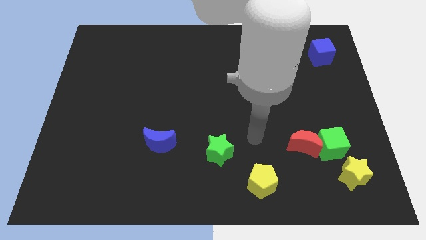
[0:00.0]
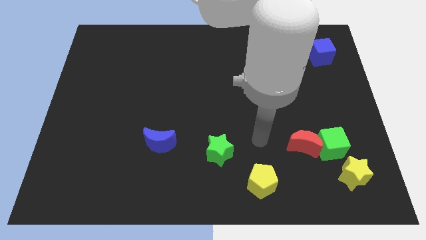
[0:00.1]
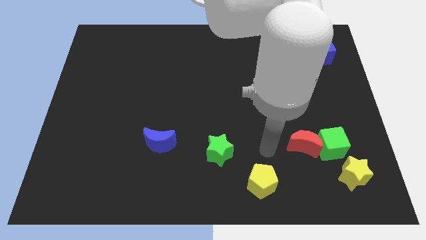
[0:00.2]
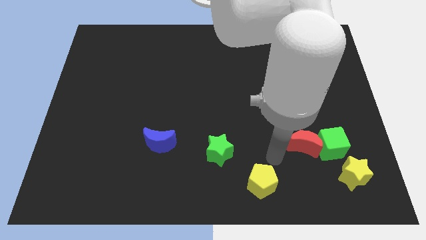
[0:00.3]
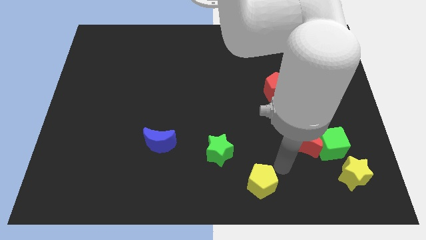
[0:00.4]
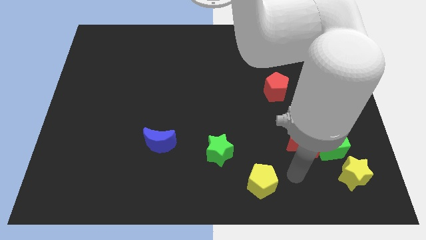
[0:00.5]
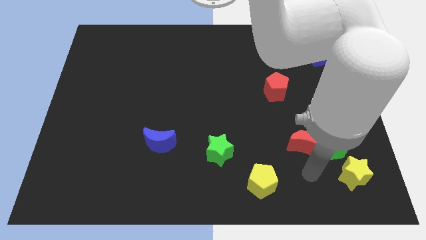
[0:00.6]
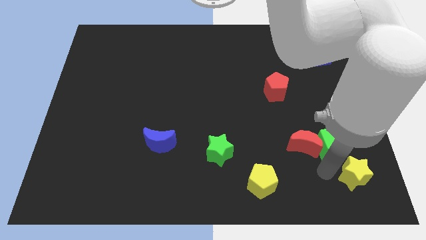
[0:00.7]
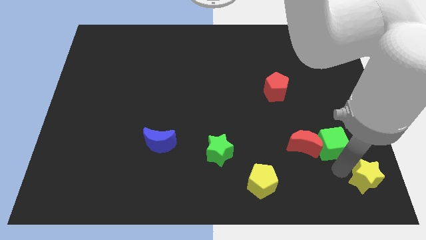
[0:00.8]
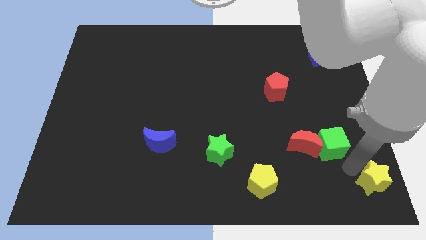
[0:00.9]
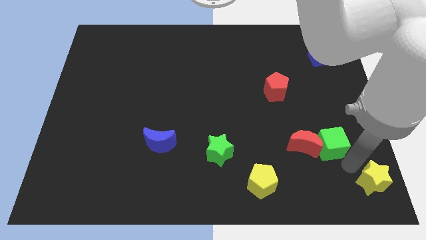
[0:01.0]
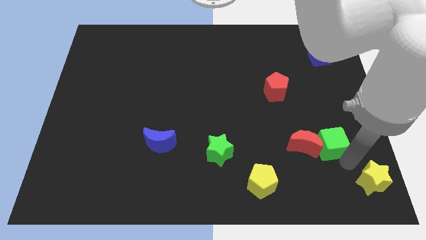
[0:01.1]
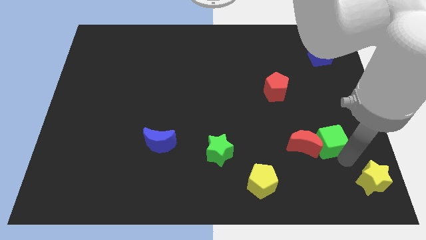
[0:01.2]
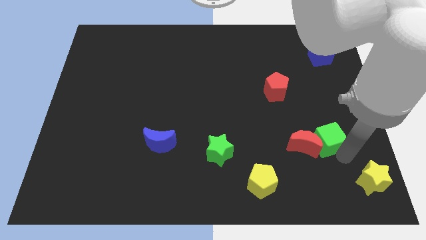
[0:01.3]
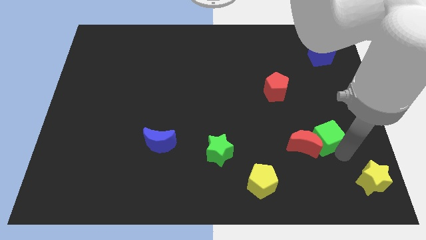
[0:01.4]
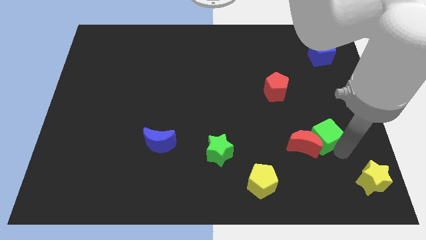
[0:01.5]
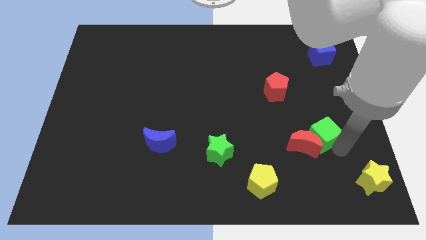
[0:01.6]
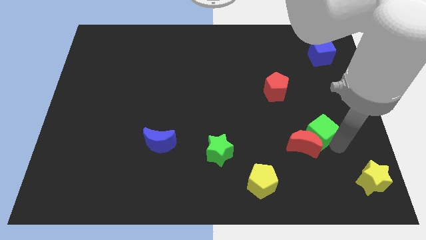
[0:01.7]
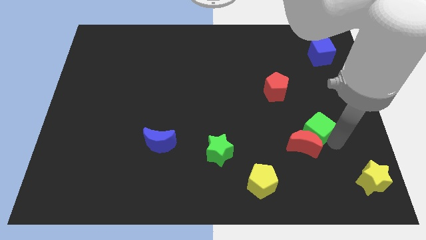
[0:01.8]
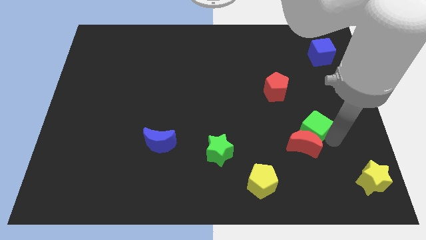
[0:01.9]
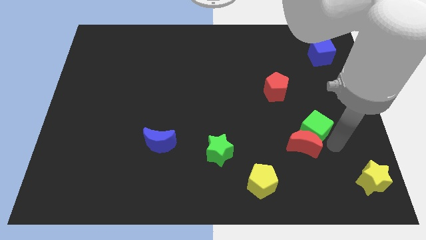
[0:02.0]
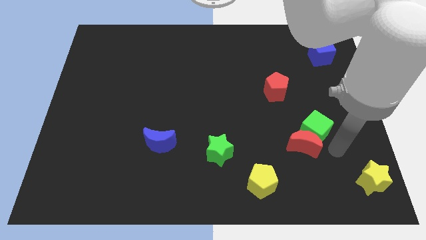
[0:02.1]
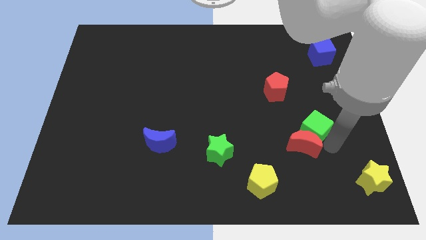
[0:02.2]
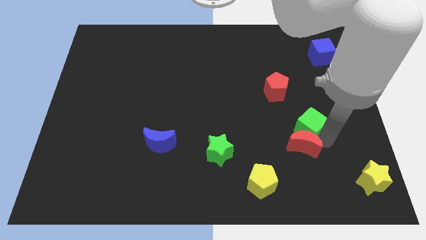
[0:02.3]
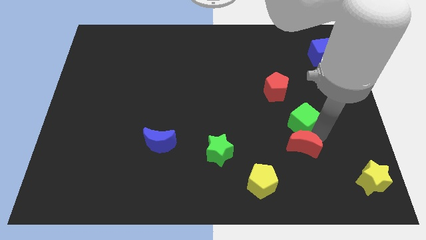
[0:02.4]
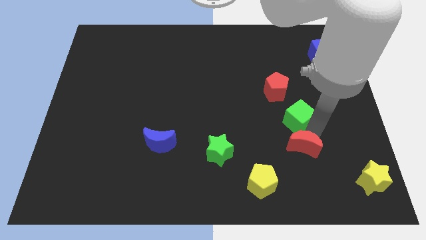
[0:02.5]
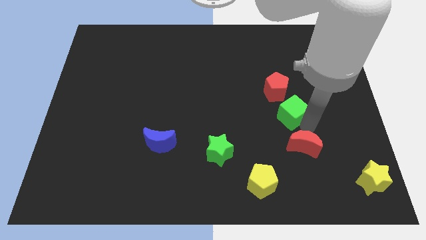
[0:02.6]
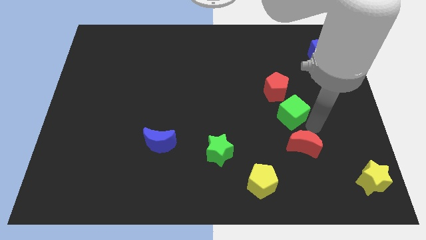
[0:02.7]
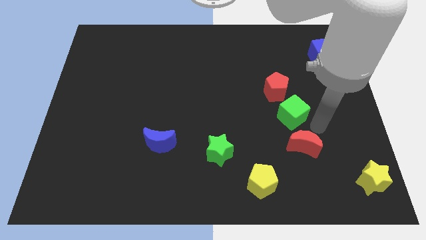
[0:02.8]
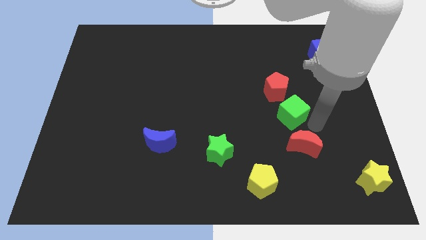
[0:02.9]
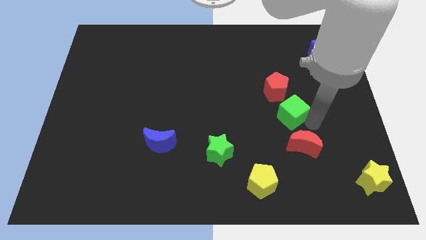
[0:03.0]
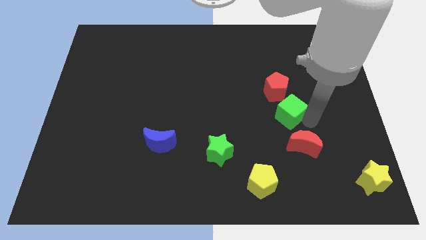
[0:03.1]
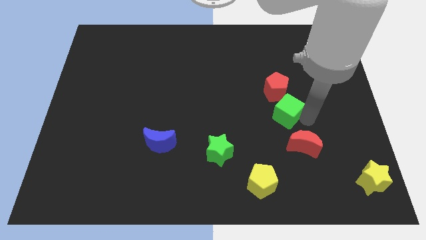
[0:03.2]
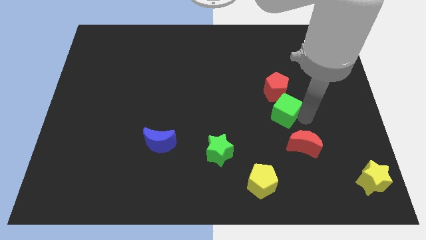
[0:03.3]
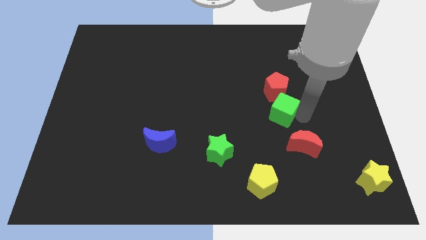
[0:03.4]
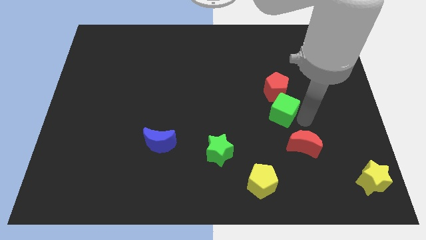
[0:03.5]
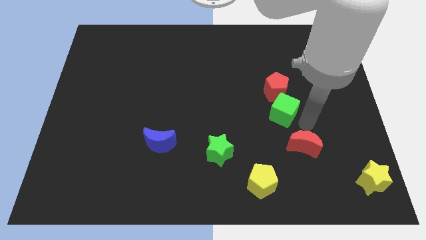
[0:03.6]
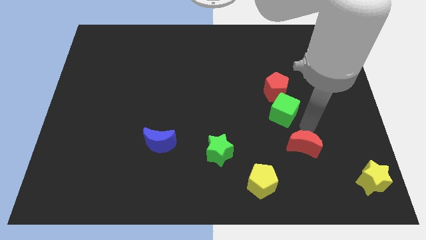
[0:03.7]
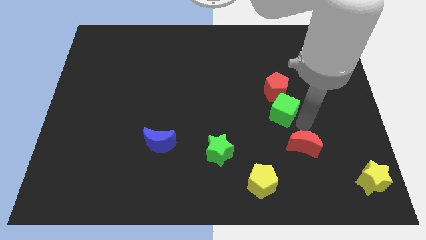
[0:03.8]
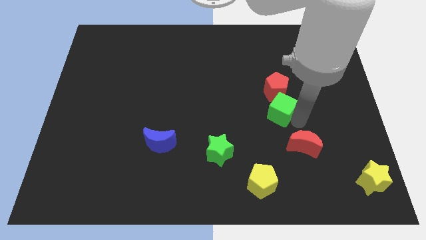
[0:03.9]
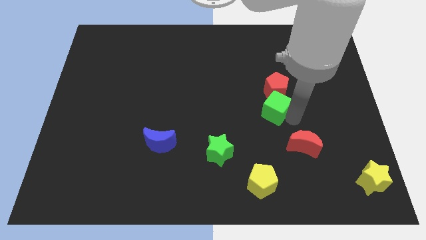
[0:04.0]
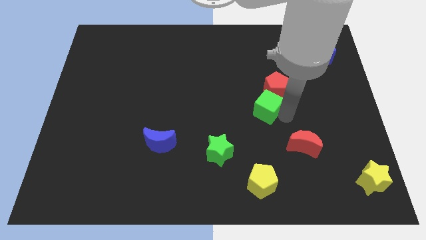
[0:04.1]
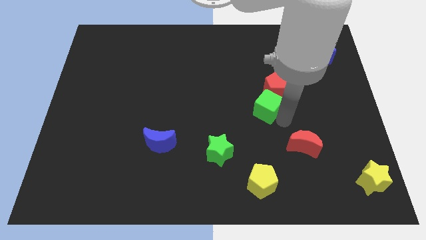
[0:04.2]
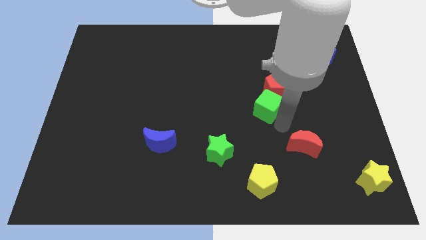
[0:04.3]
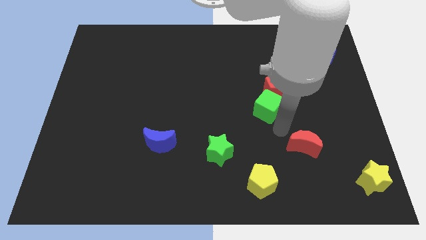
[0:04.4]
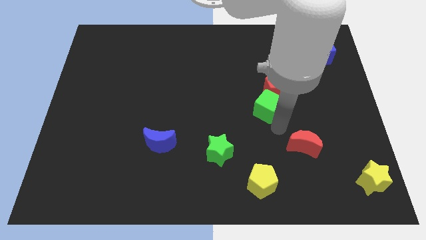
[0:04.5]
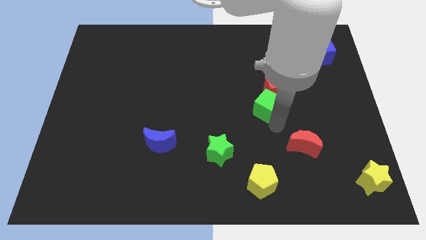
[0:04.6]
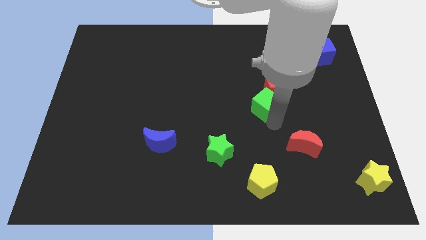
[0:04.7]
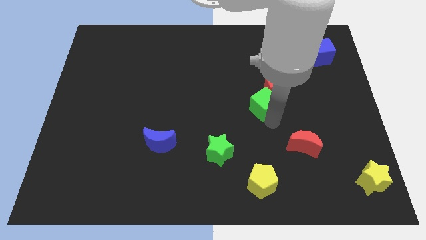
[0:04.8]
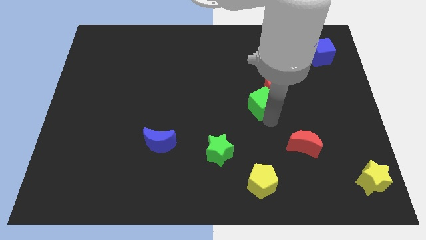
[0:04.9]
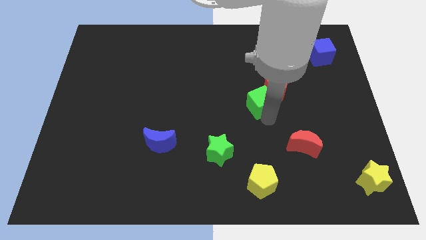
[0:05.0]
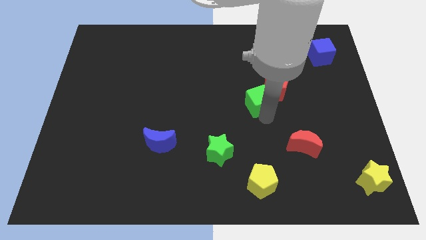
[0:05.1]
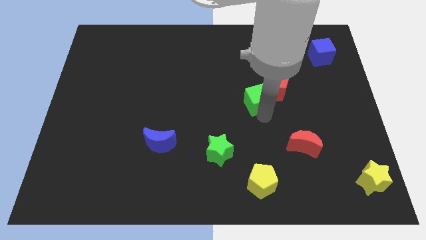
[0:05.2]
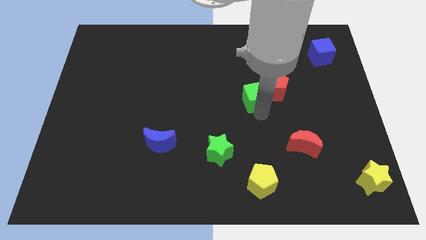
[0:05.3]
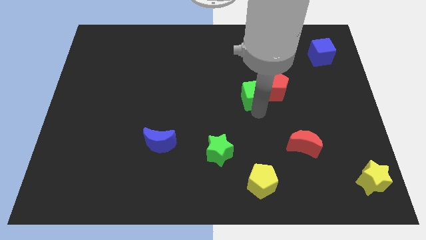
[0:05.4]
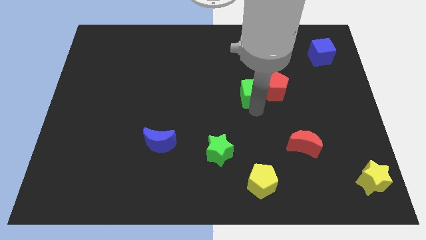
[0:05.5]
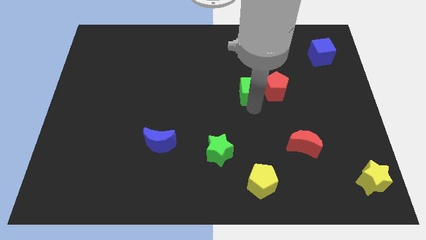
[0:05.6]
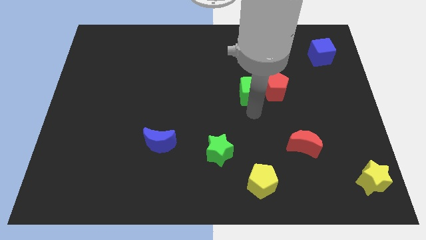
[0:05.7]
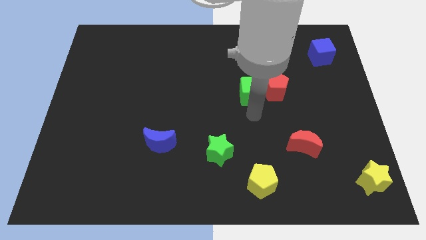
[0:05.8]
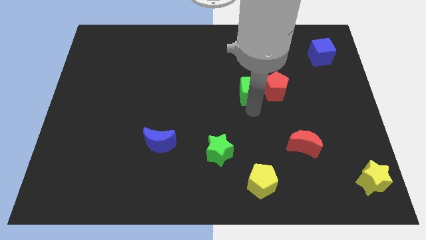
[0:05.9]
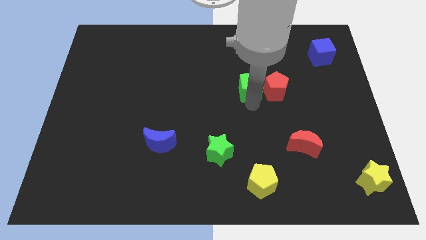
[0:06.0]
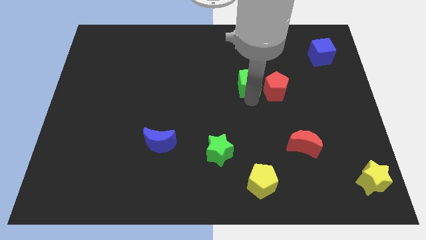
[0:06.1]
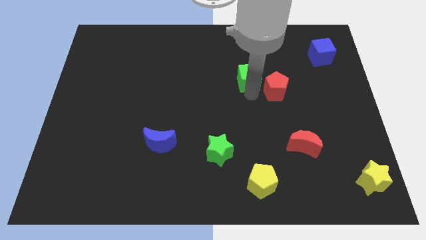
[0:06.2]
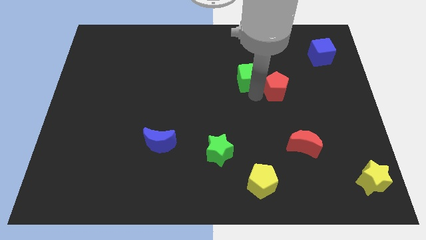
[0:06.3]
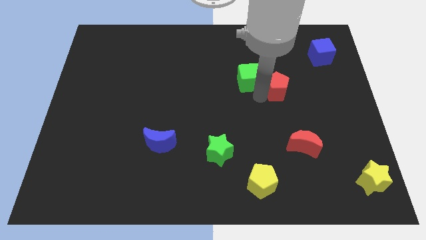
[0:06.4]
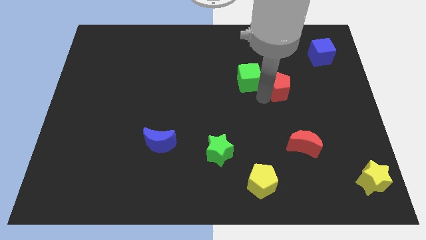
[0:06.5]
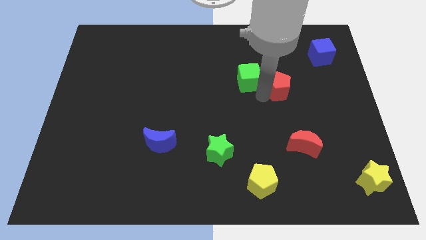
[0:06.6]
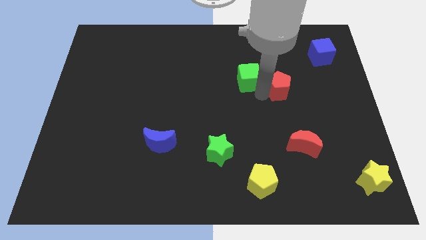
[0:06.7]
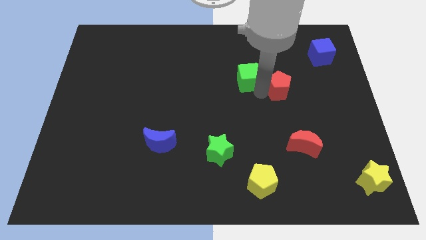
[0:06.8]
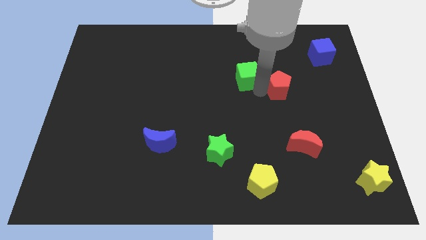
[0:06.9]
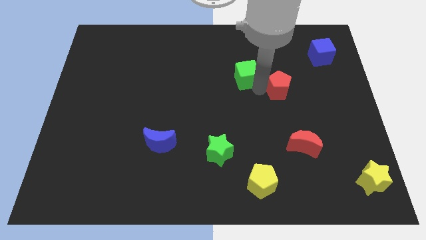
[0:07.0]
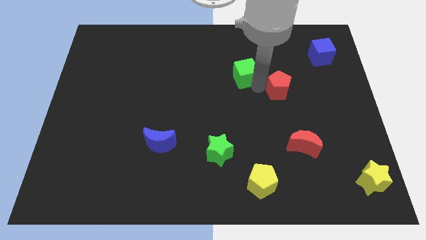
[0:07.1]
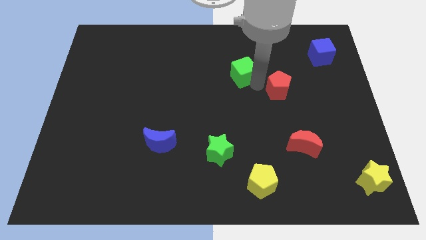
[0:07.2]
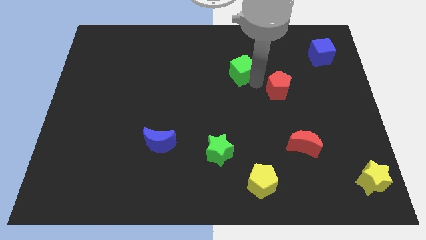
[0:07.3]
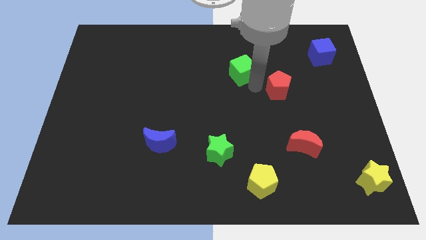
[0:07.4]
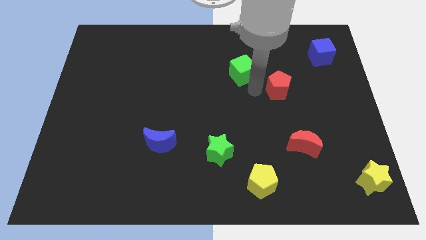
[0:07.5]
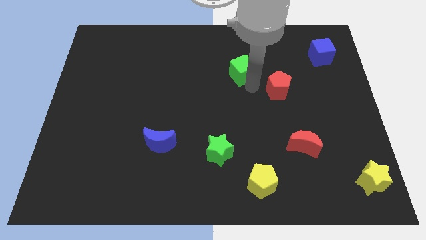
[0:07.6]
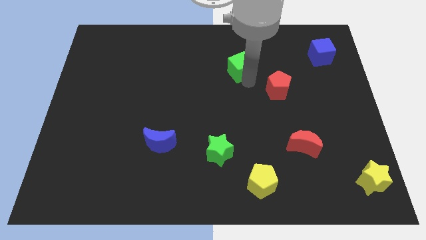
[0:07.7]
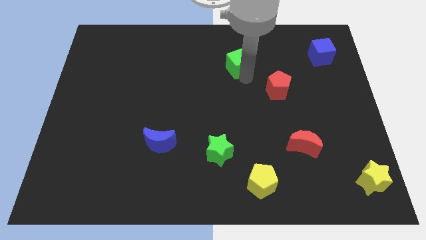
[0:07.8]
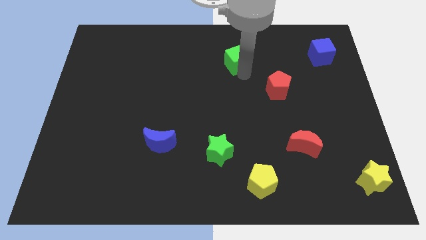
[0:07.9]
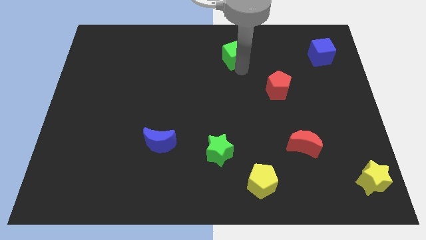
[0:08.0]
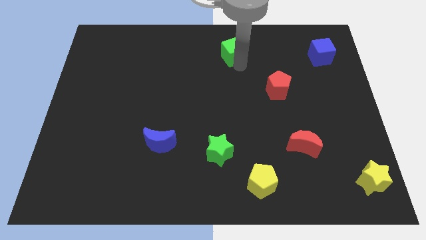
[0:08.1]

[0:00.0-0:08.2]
move the green cube to the top side
